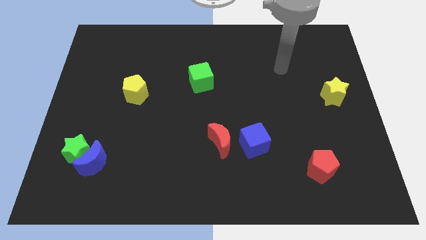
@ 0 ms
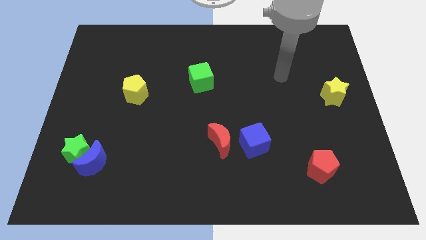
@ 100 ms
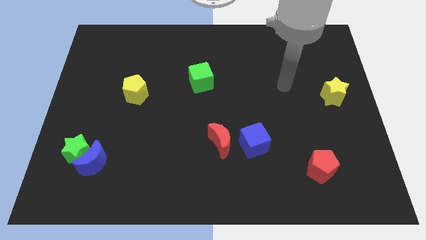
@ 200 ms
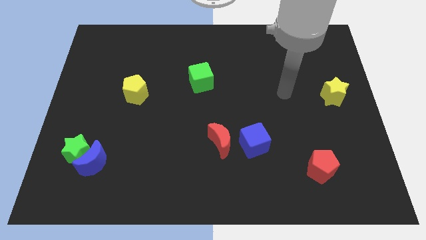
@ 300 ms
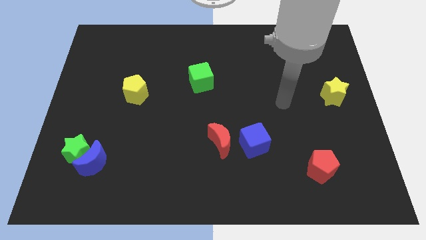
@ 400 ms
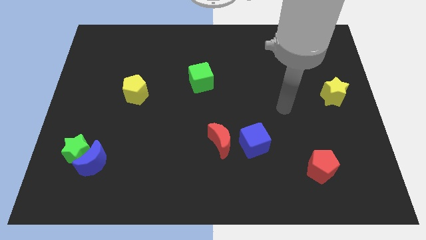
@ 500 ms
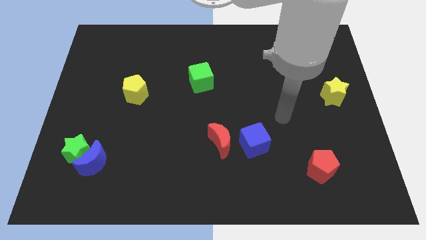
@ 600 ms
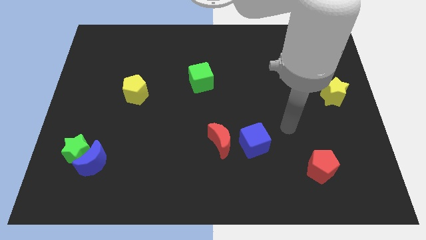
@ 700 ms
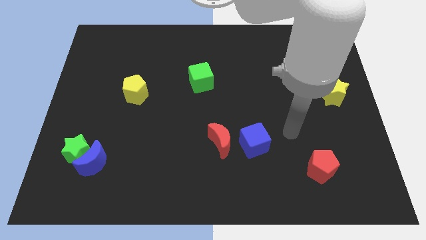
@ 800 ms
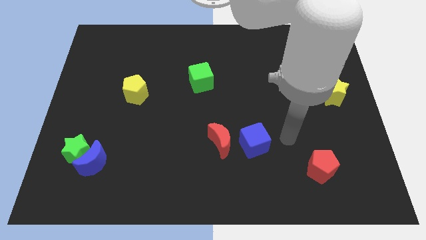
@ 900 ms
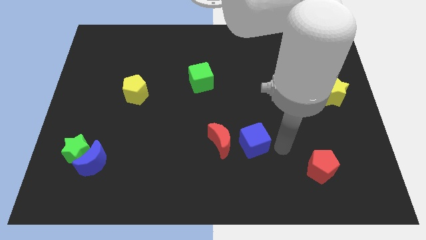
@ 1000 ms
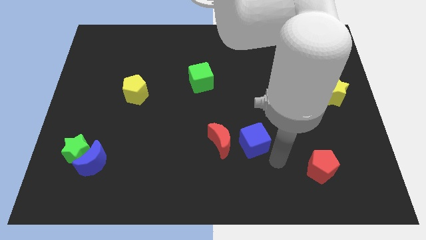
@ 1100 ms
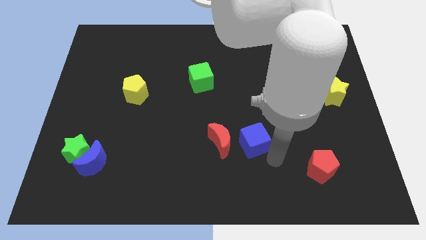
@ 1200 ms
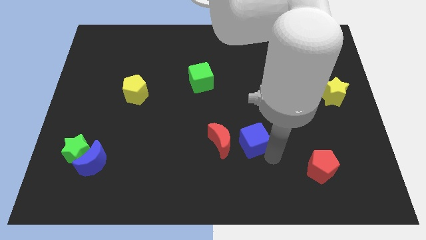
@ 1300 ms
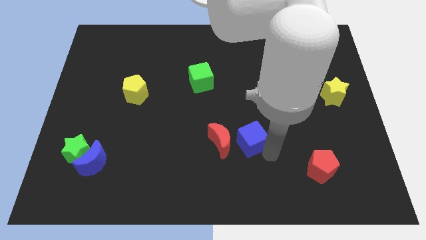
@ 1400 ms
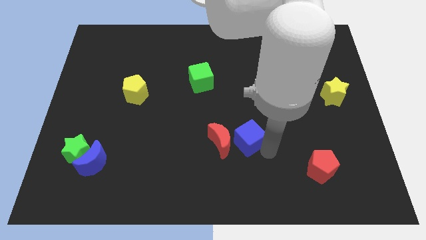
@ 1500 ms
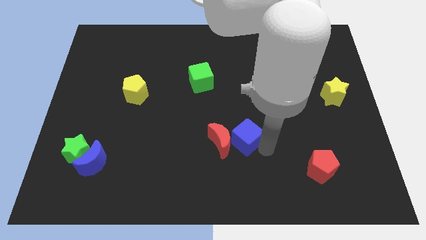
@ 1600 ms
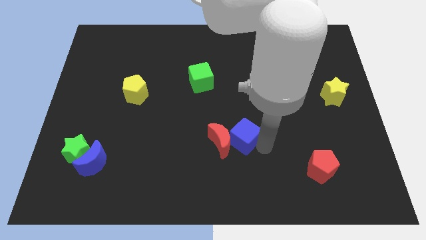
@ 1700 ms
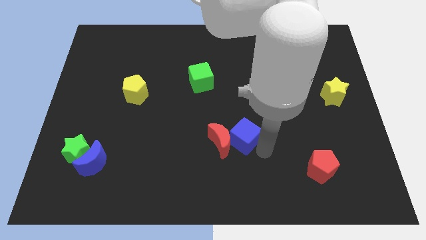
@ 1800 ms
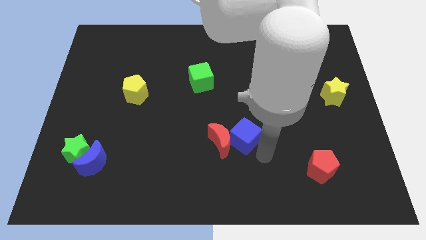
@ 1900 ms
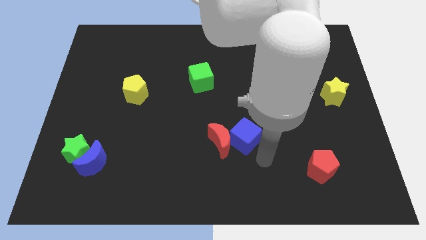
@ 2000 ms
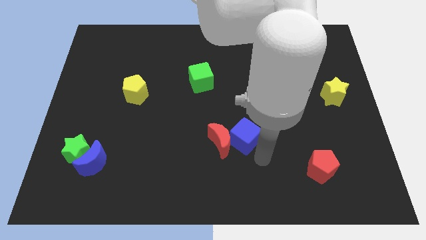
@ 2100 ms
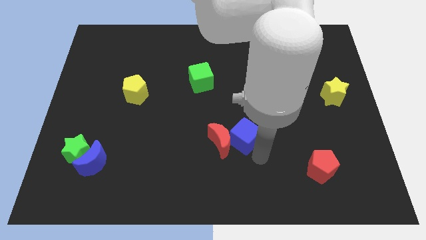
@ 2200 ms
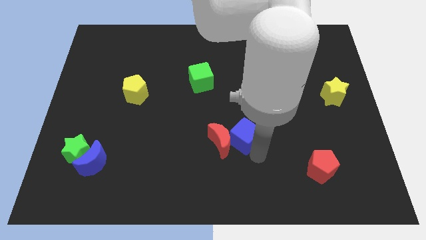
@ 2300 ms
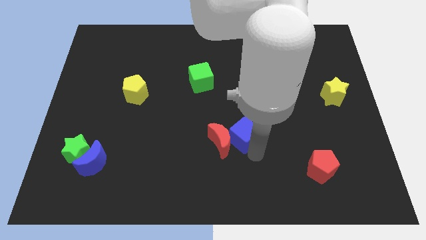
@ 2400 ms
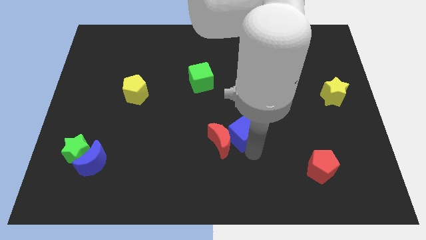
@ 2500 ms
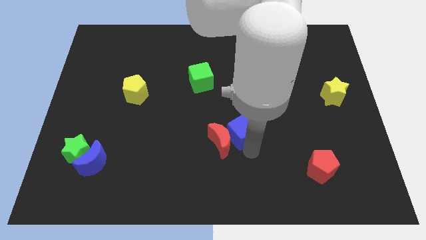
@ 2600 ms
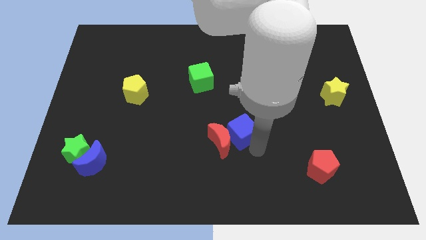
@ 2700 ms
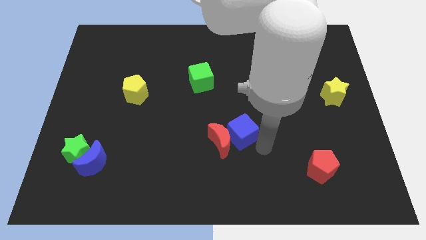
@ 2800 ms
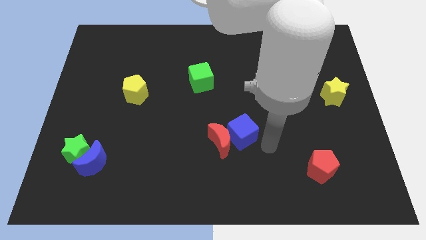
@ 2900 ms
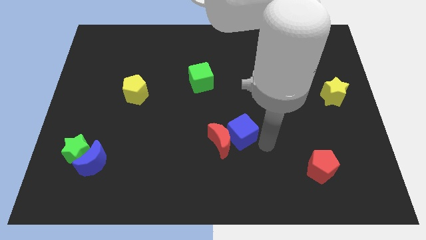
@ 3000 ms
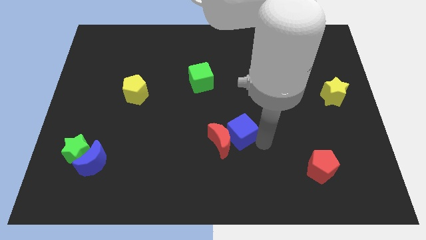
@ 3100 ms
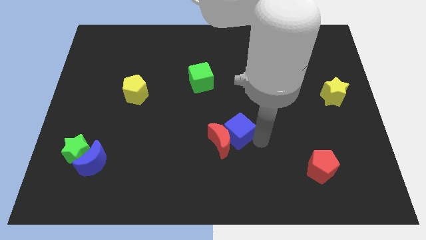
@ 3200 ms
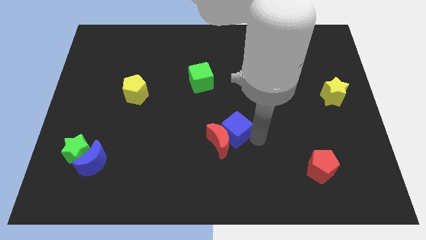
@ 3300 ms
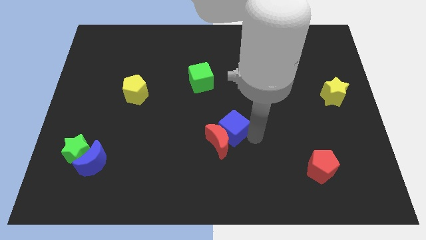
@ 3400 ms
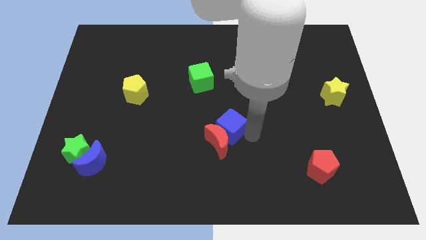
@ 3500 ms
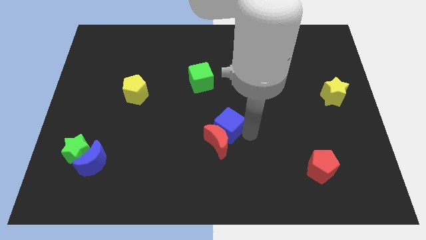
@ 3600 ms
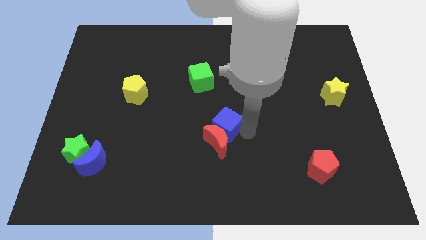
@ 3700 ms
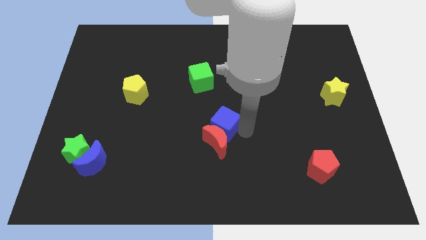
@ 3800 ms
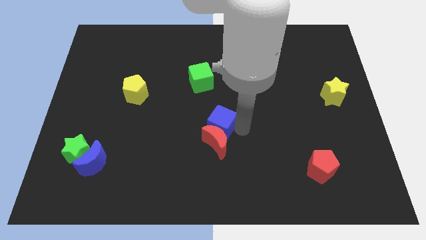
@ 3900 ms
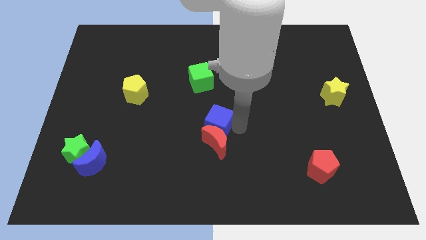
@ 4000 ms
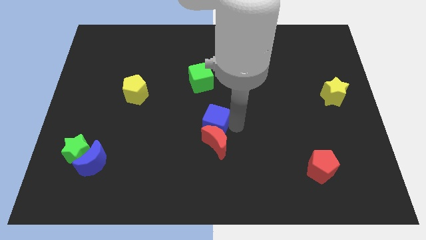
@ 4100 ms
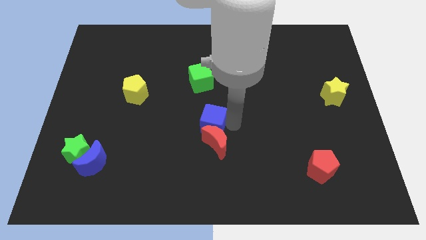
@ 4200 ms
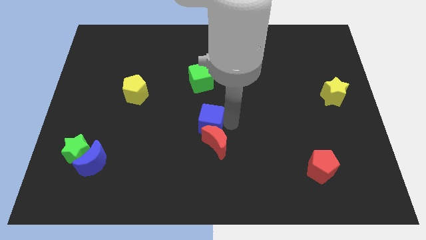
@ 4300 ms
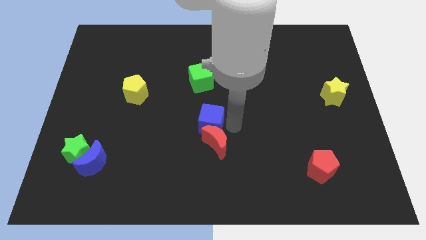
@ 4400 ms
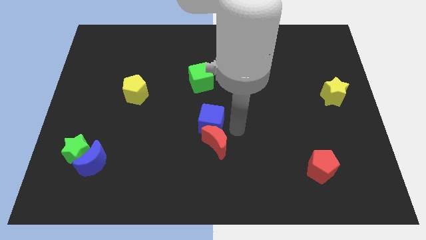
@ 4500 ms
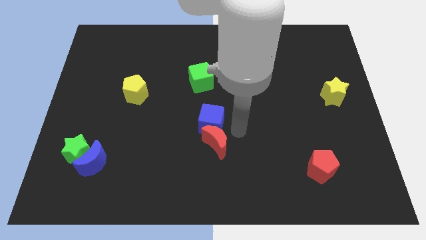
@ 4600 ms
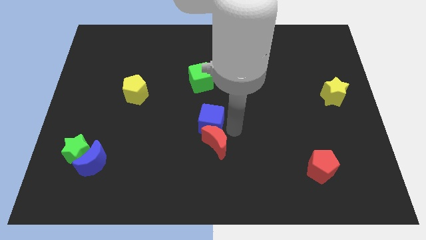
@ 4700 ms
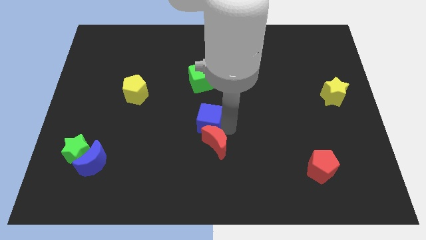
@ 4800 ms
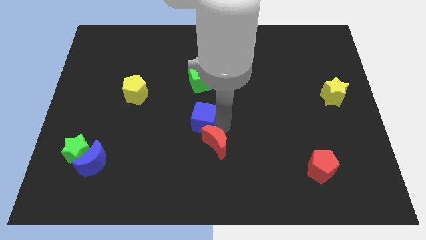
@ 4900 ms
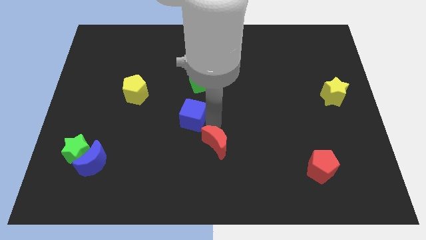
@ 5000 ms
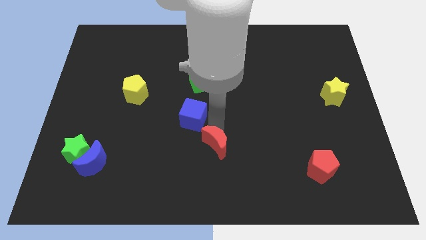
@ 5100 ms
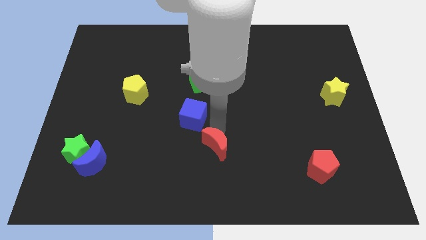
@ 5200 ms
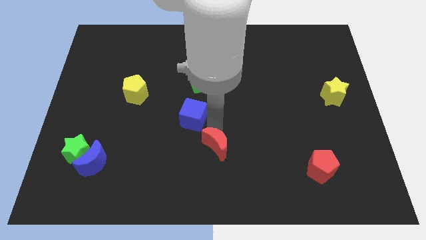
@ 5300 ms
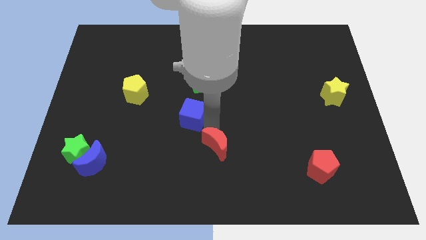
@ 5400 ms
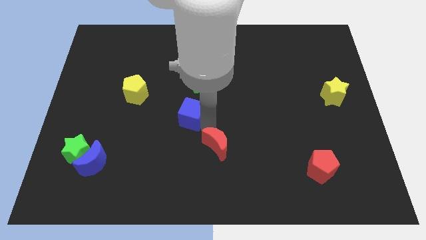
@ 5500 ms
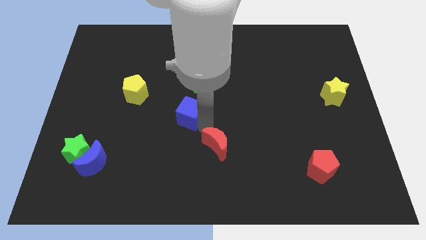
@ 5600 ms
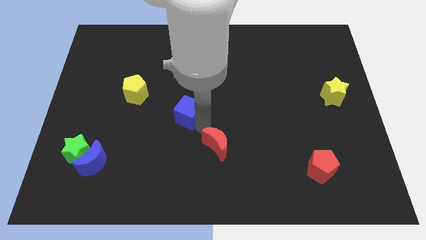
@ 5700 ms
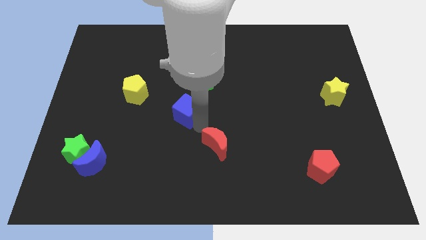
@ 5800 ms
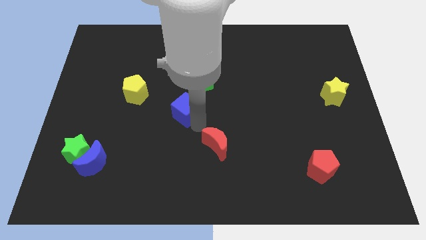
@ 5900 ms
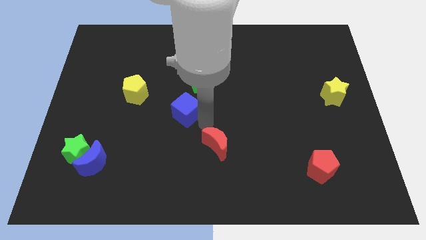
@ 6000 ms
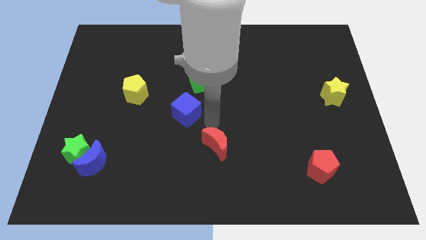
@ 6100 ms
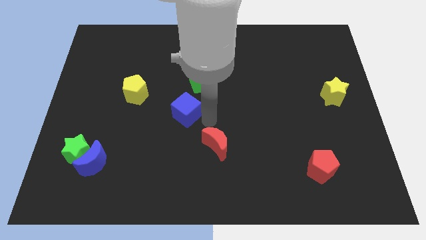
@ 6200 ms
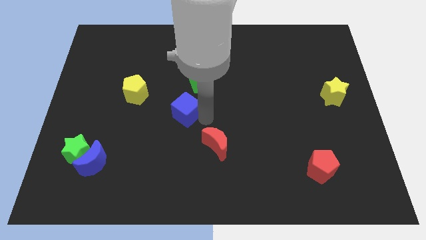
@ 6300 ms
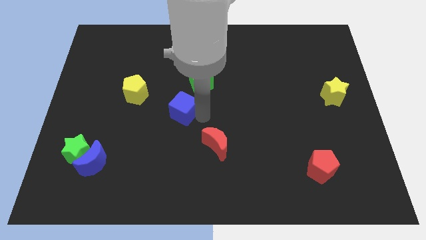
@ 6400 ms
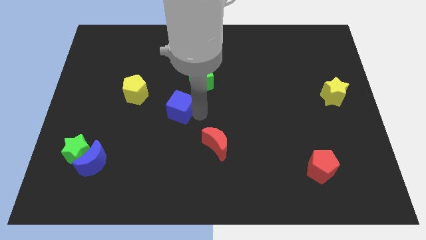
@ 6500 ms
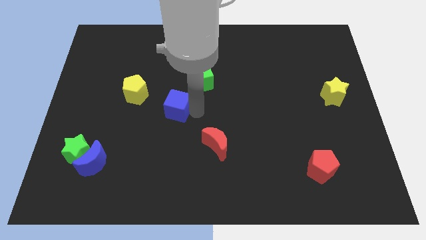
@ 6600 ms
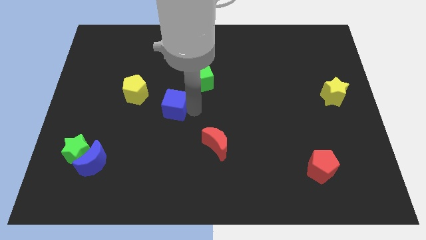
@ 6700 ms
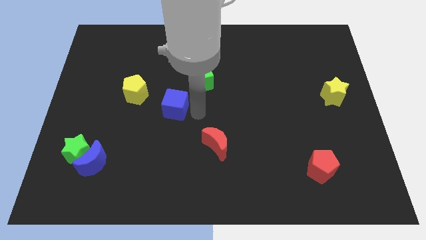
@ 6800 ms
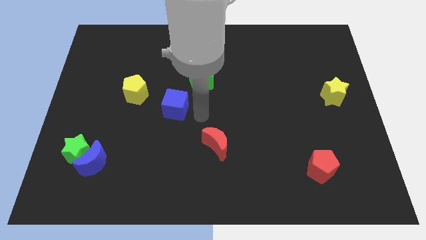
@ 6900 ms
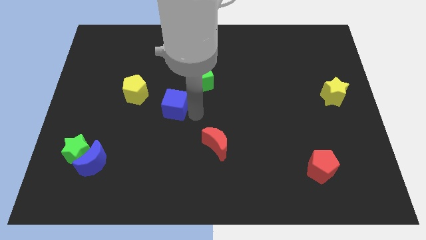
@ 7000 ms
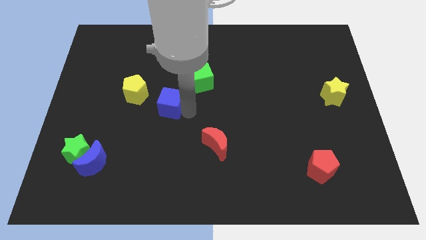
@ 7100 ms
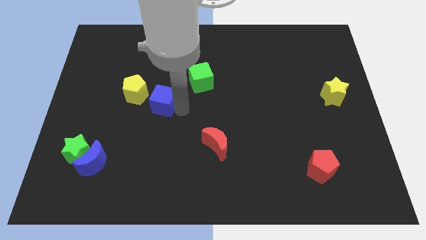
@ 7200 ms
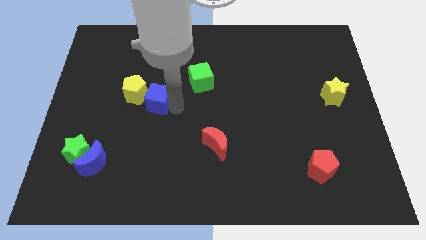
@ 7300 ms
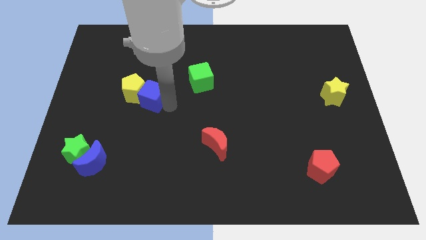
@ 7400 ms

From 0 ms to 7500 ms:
slide the blue cube to the yellow pentagon
